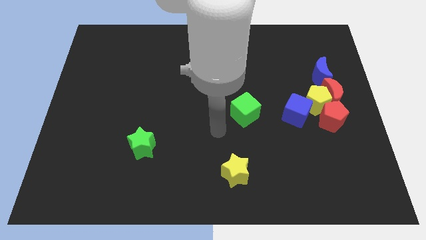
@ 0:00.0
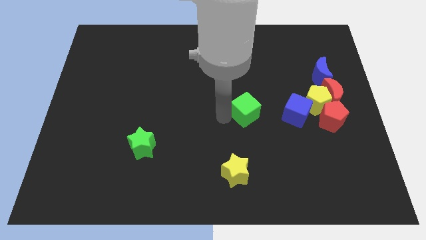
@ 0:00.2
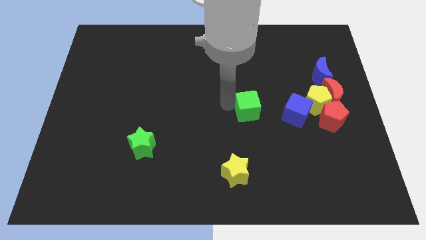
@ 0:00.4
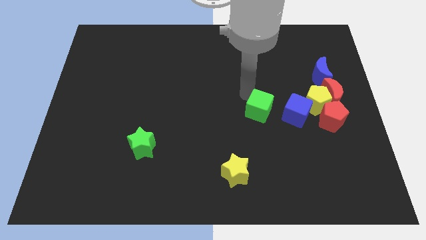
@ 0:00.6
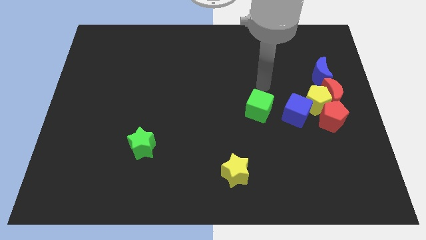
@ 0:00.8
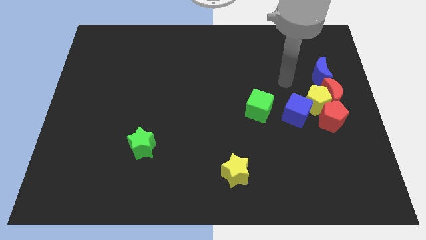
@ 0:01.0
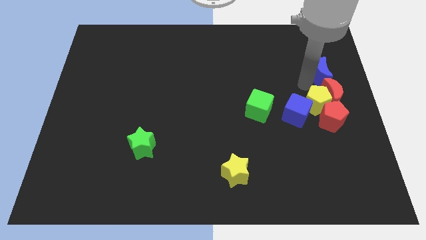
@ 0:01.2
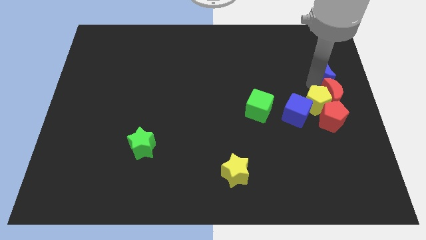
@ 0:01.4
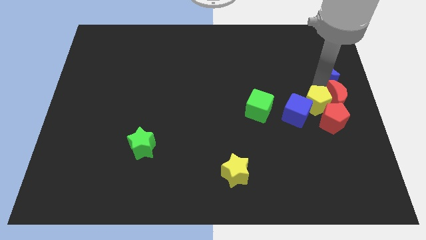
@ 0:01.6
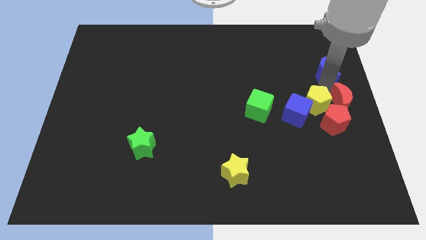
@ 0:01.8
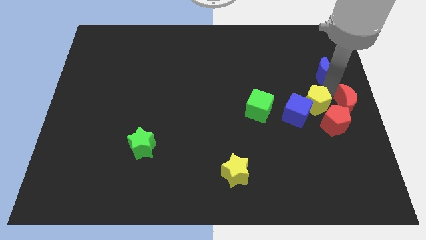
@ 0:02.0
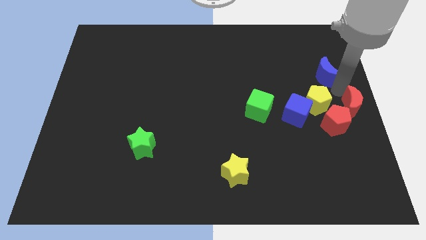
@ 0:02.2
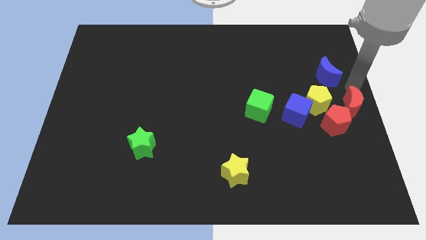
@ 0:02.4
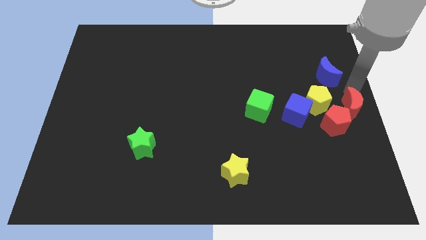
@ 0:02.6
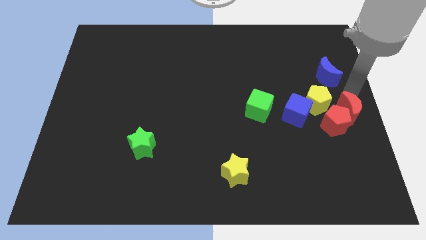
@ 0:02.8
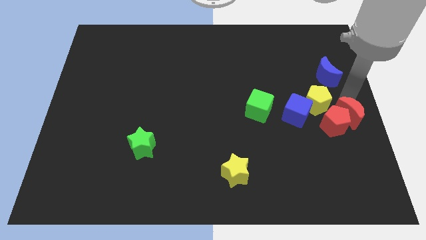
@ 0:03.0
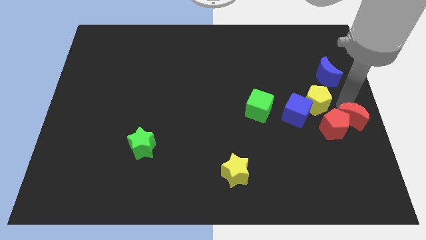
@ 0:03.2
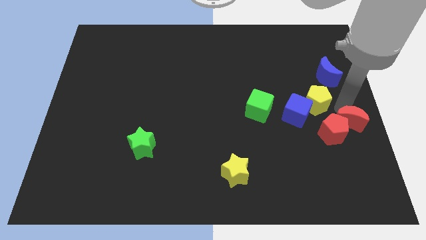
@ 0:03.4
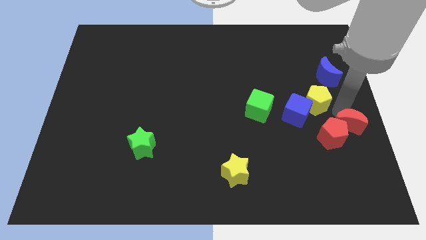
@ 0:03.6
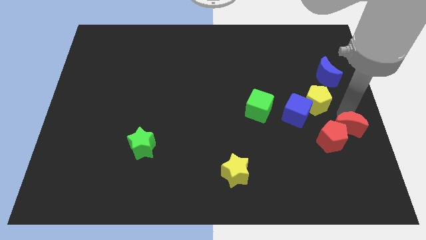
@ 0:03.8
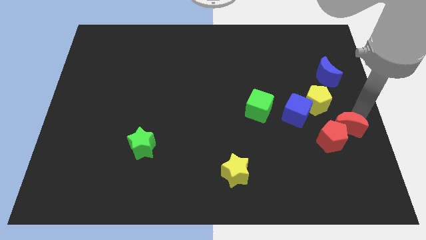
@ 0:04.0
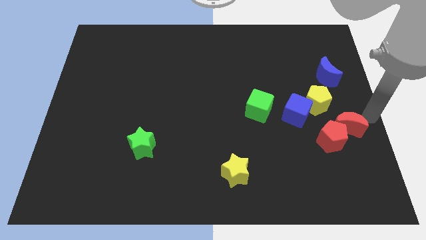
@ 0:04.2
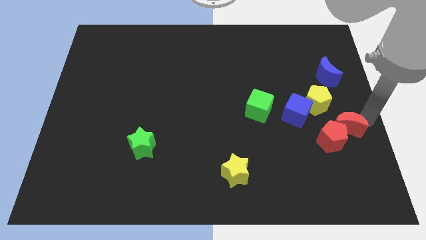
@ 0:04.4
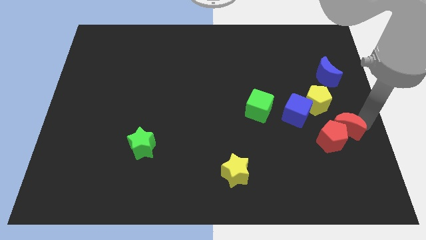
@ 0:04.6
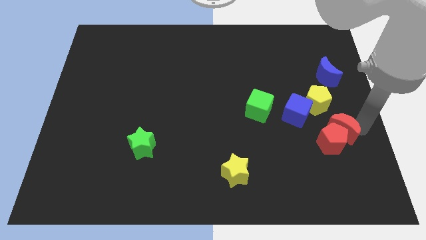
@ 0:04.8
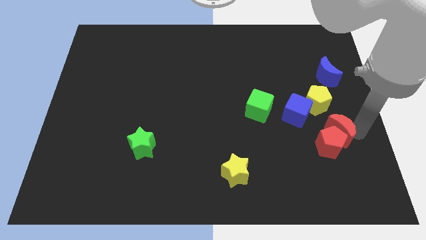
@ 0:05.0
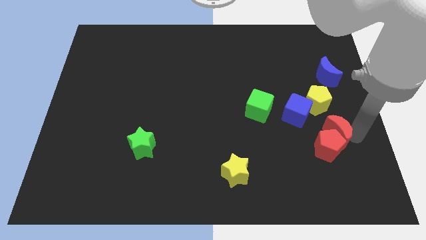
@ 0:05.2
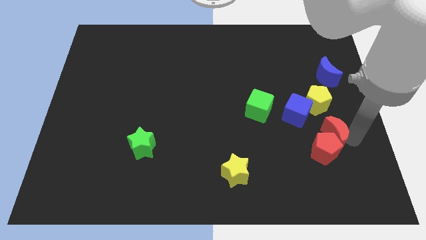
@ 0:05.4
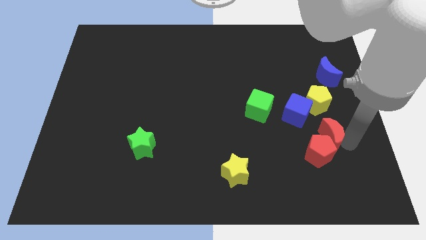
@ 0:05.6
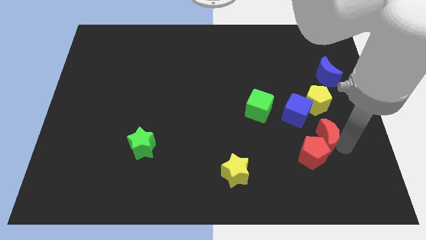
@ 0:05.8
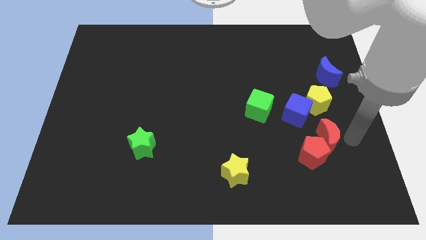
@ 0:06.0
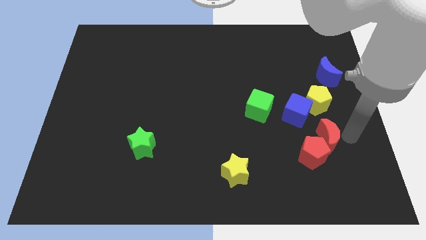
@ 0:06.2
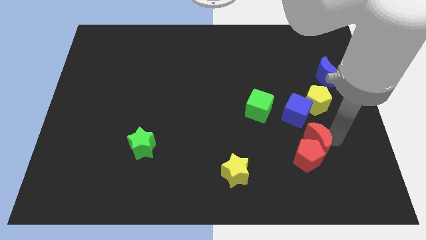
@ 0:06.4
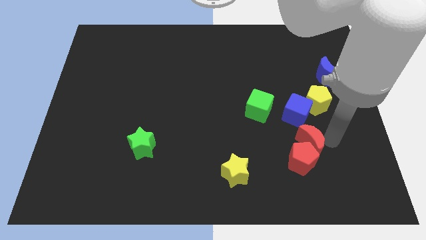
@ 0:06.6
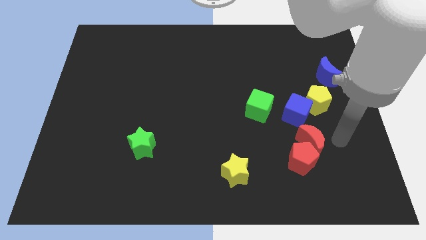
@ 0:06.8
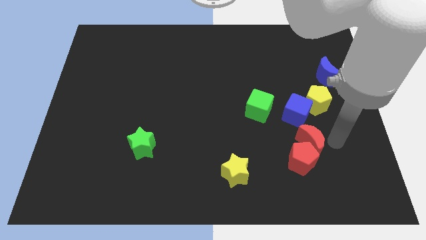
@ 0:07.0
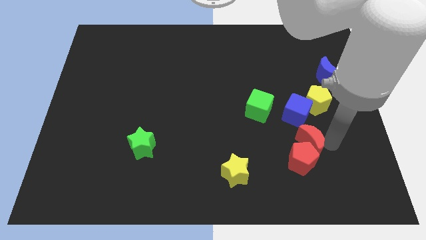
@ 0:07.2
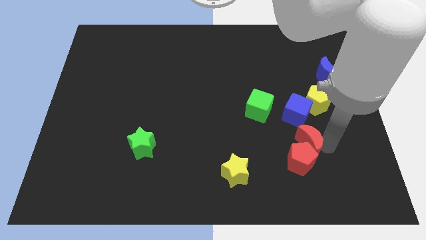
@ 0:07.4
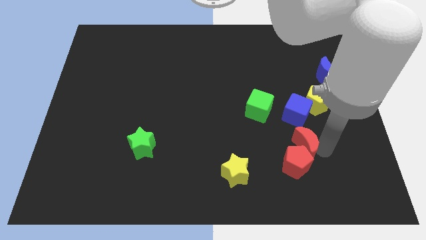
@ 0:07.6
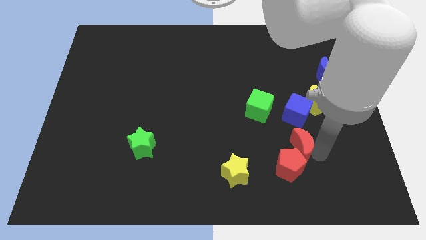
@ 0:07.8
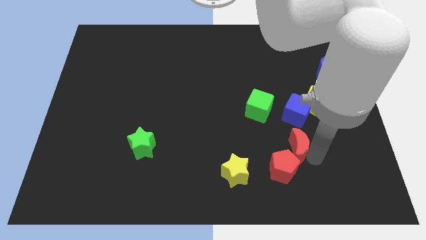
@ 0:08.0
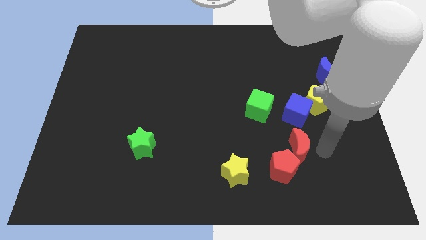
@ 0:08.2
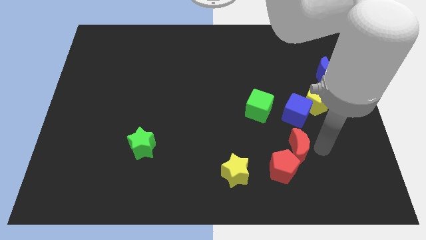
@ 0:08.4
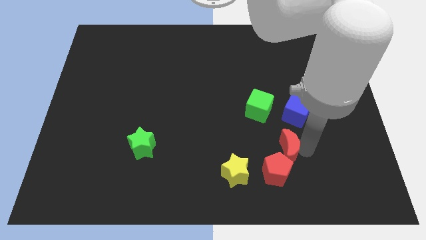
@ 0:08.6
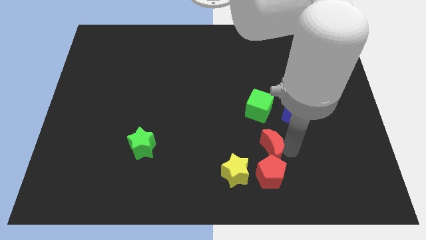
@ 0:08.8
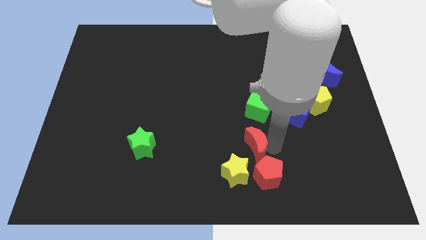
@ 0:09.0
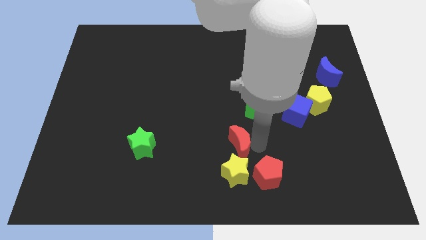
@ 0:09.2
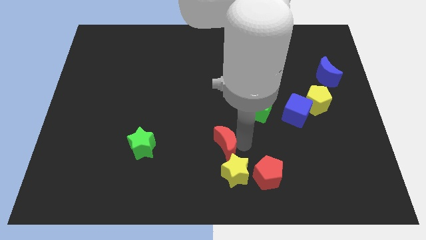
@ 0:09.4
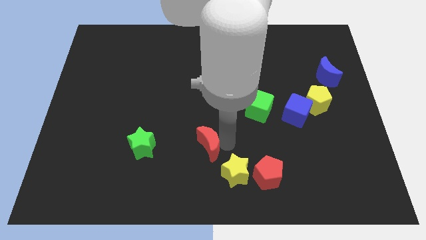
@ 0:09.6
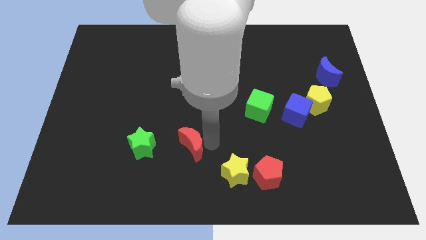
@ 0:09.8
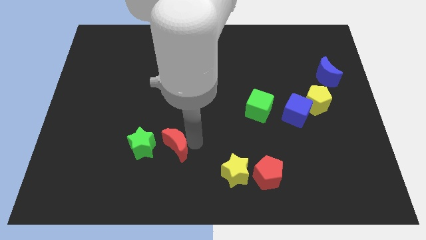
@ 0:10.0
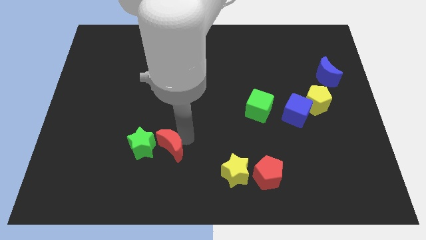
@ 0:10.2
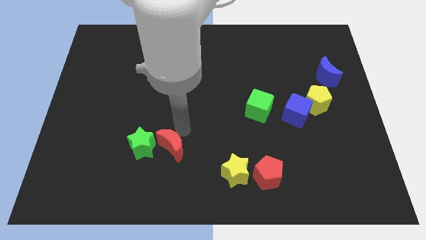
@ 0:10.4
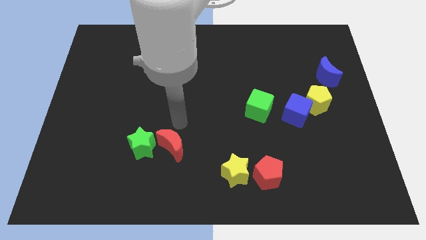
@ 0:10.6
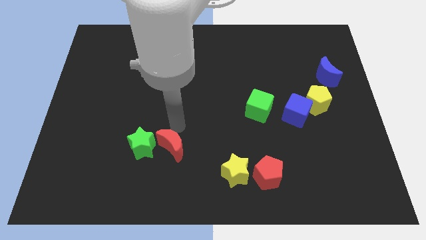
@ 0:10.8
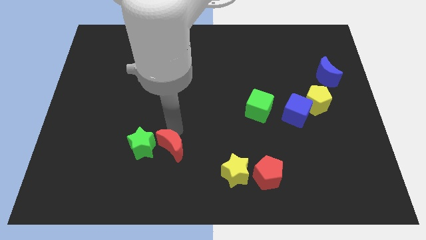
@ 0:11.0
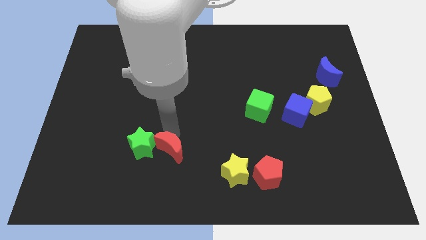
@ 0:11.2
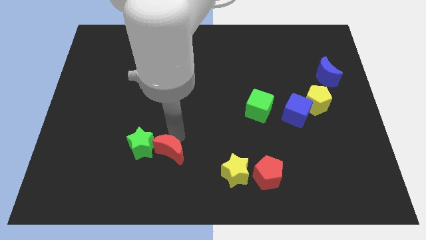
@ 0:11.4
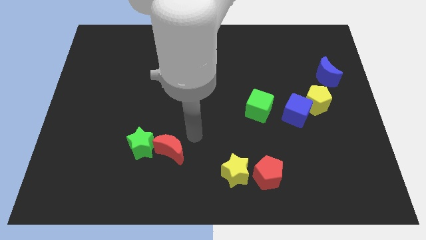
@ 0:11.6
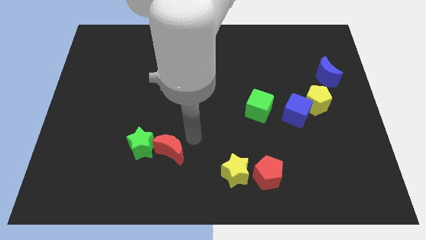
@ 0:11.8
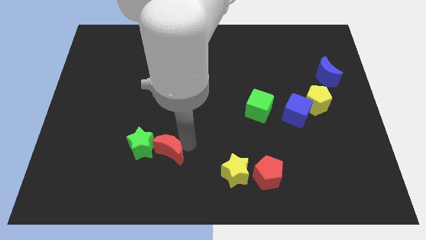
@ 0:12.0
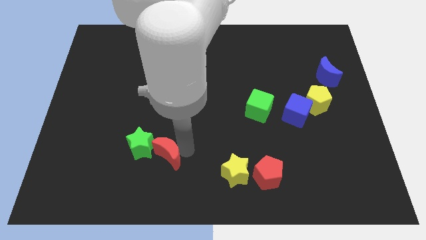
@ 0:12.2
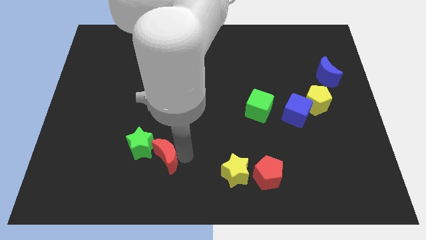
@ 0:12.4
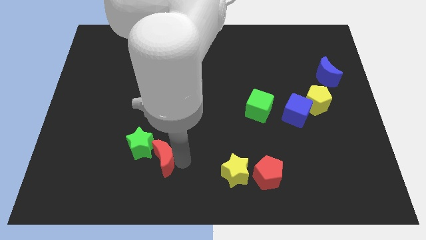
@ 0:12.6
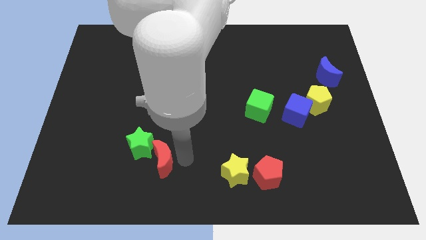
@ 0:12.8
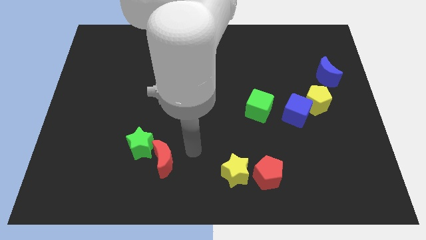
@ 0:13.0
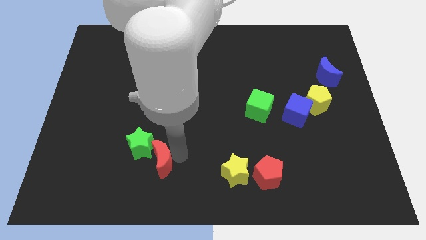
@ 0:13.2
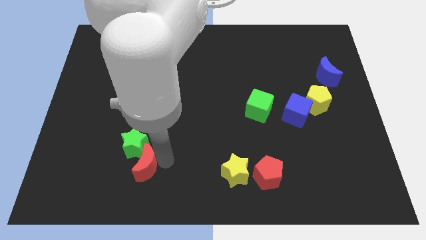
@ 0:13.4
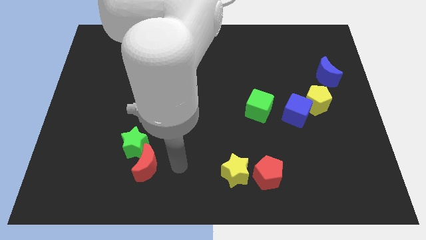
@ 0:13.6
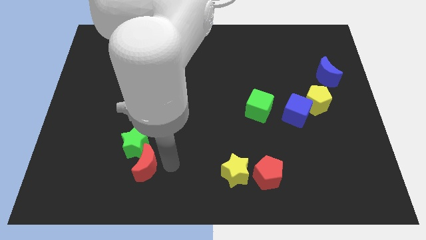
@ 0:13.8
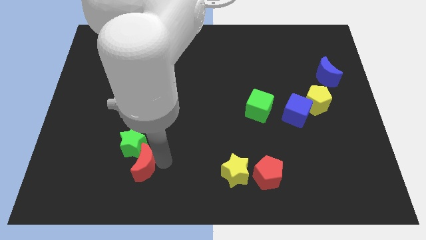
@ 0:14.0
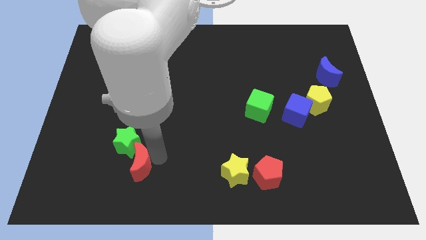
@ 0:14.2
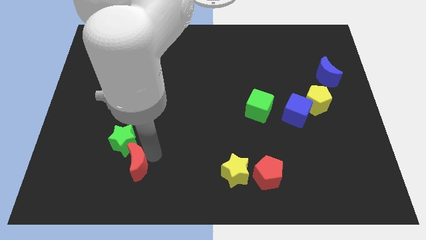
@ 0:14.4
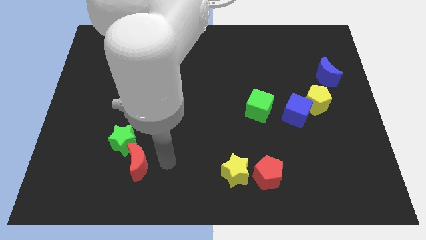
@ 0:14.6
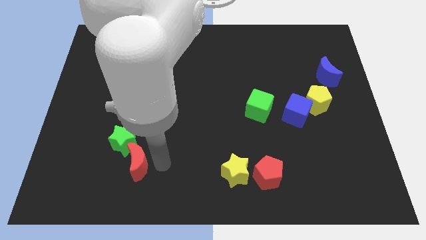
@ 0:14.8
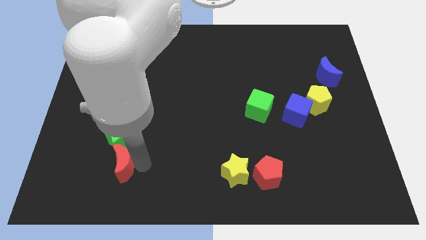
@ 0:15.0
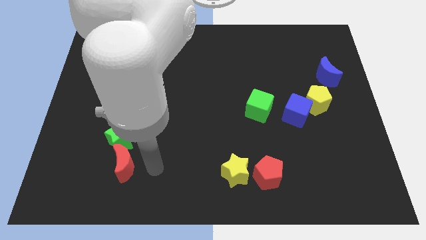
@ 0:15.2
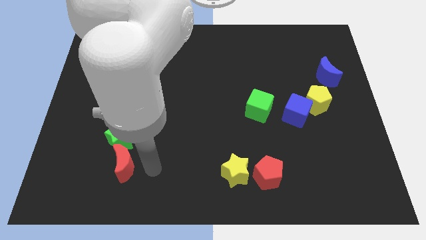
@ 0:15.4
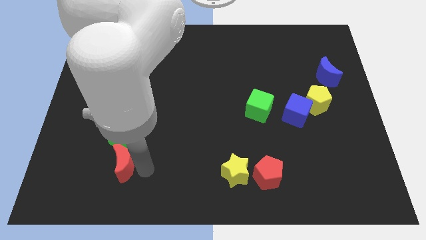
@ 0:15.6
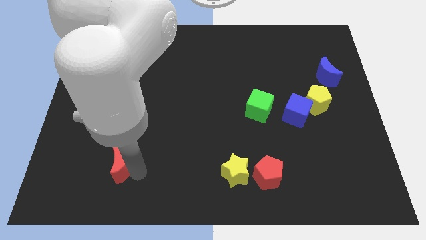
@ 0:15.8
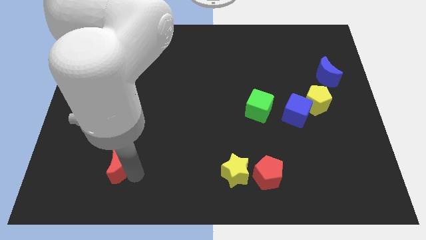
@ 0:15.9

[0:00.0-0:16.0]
slide the red moon to the bottom left of the green star
